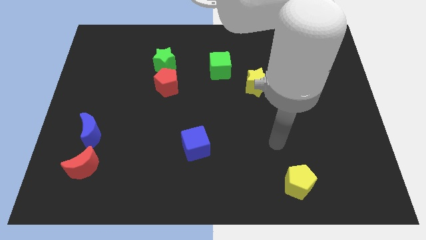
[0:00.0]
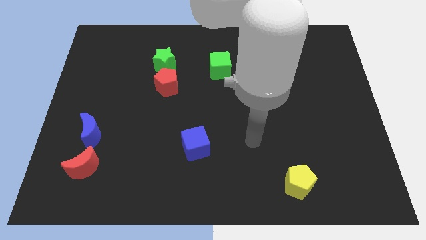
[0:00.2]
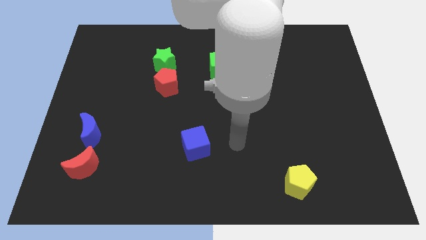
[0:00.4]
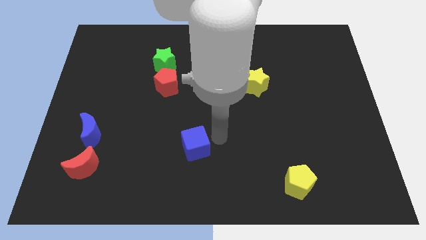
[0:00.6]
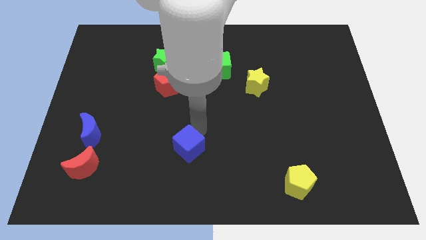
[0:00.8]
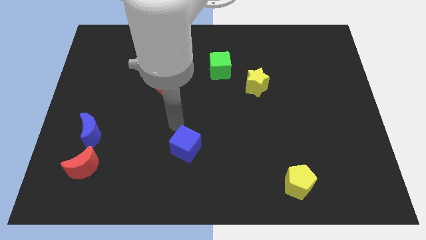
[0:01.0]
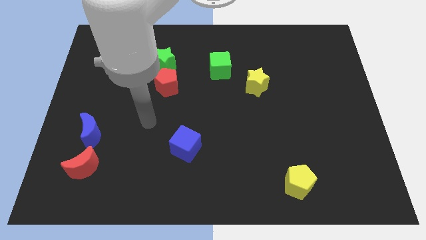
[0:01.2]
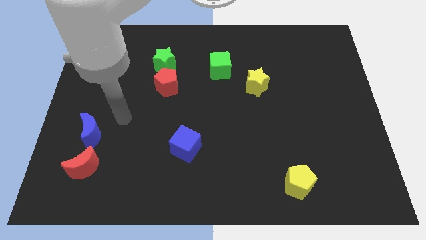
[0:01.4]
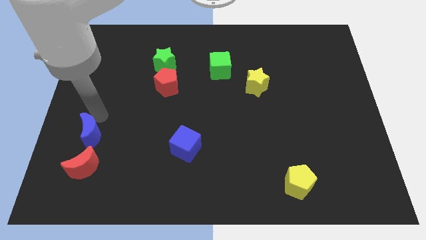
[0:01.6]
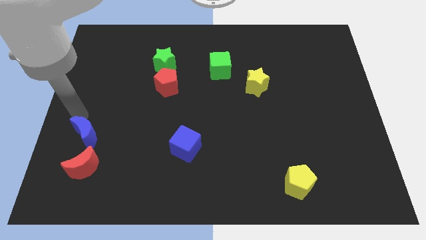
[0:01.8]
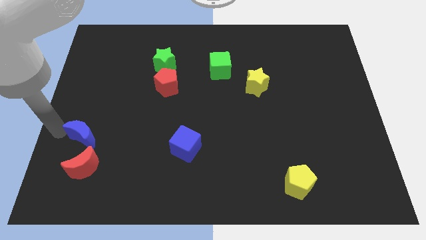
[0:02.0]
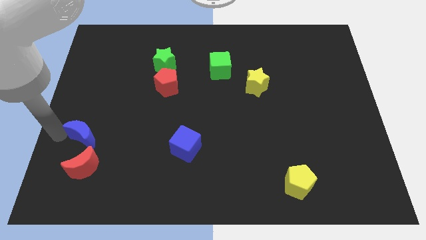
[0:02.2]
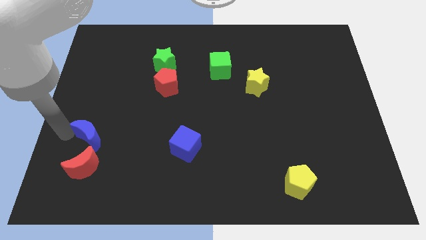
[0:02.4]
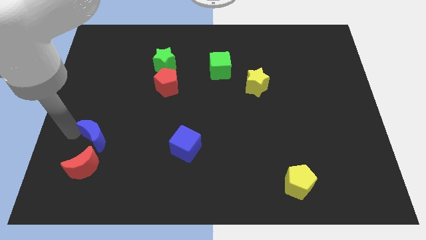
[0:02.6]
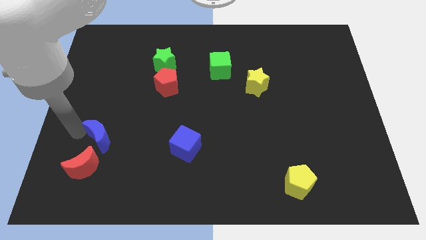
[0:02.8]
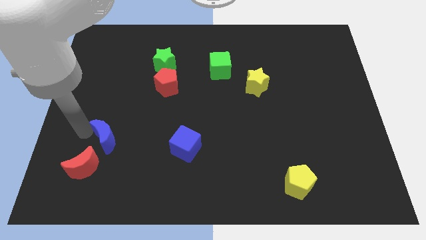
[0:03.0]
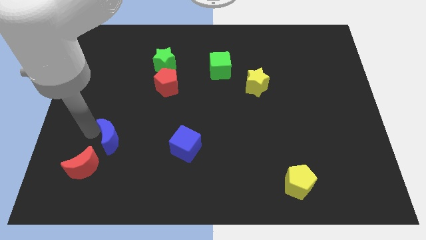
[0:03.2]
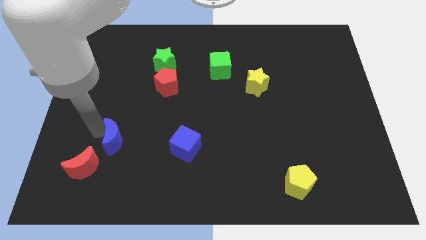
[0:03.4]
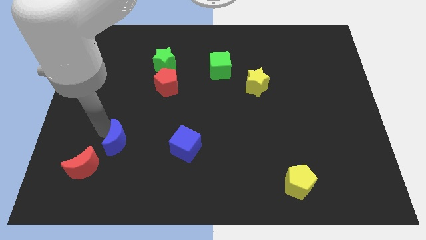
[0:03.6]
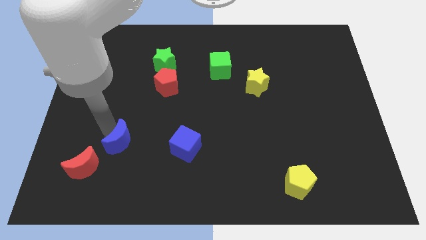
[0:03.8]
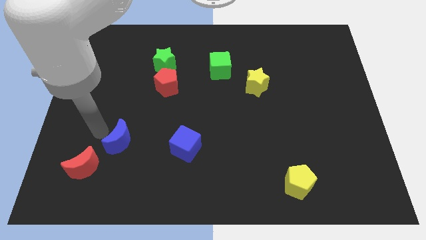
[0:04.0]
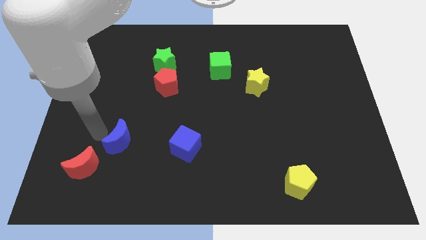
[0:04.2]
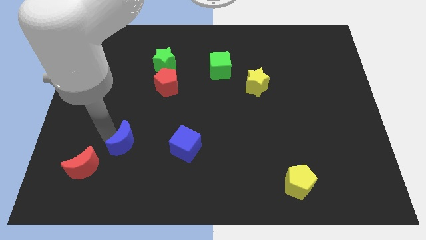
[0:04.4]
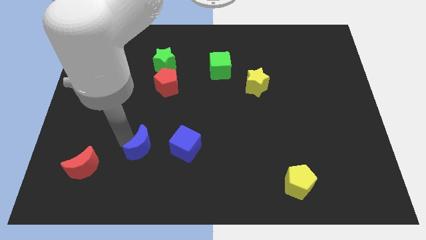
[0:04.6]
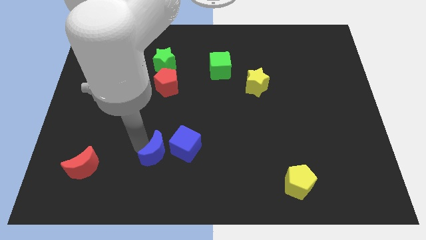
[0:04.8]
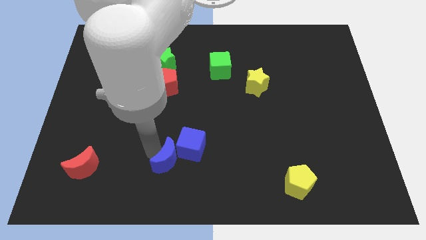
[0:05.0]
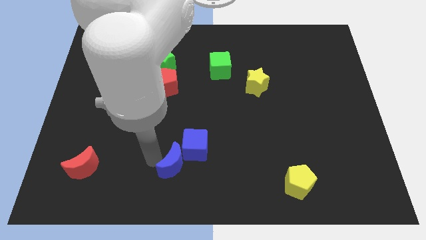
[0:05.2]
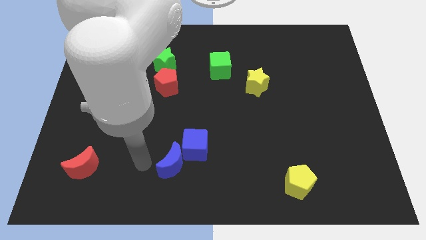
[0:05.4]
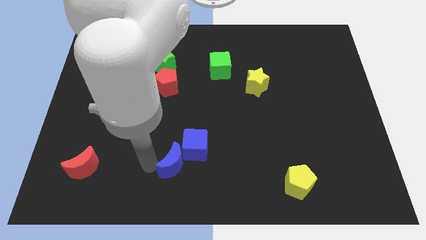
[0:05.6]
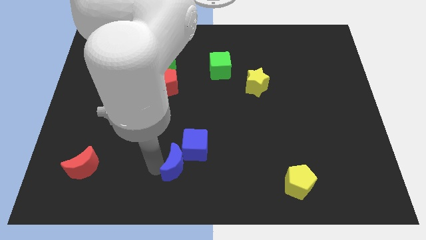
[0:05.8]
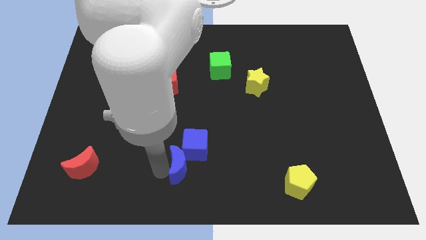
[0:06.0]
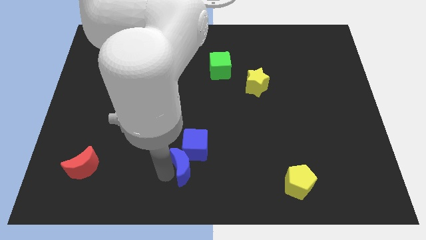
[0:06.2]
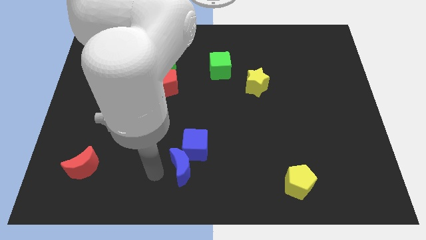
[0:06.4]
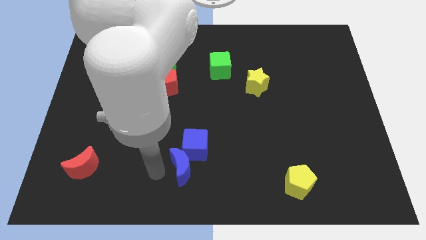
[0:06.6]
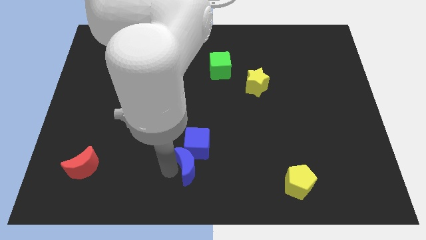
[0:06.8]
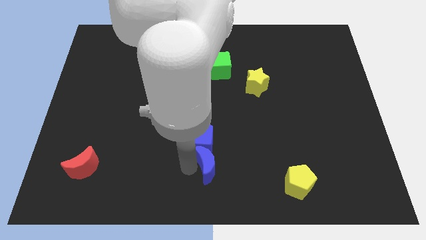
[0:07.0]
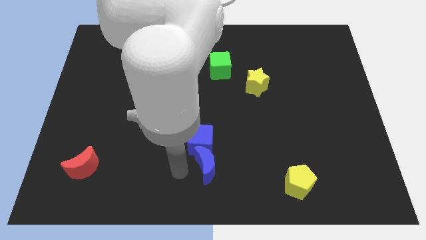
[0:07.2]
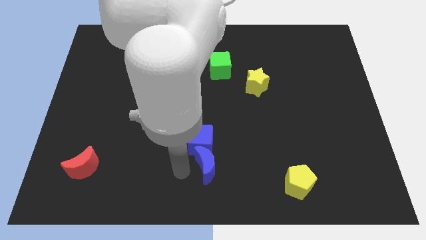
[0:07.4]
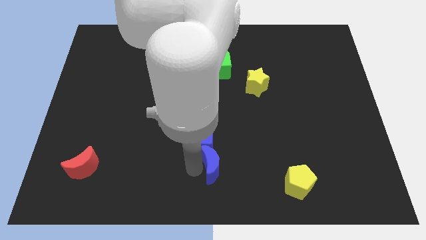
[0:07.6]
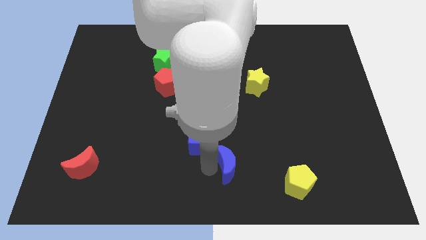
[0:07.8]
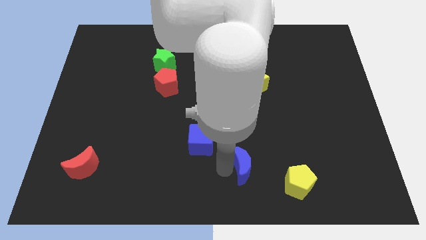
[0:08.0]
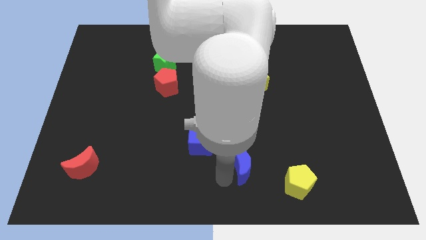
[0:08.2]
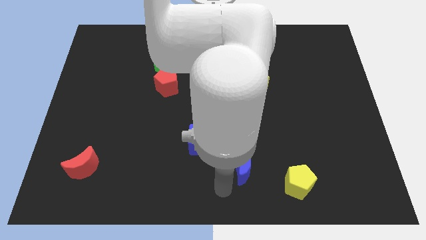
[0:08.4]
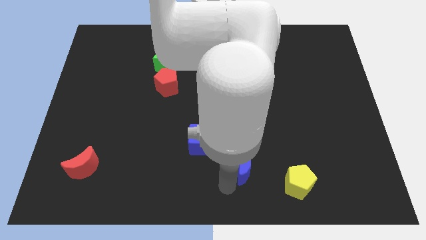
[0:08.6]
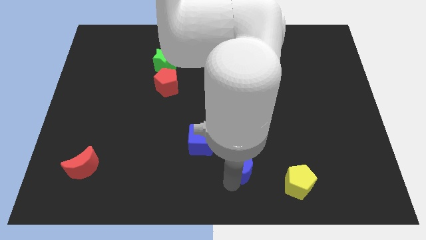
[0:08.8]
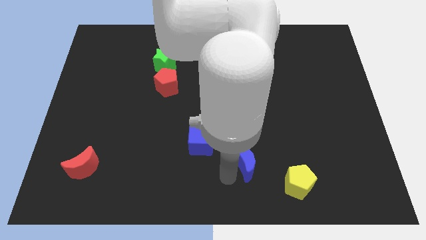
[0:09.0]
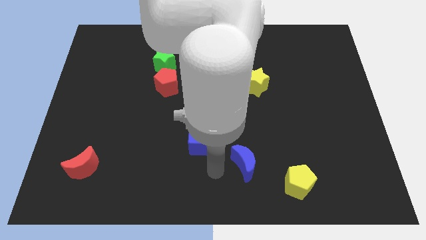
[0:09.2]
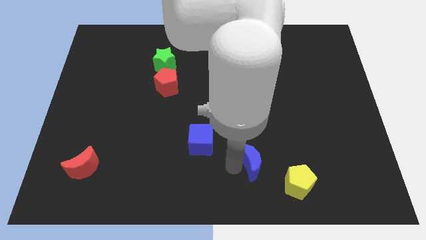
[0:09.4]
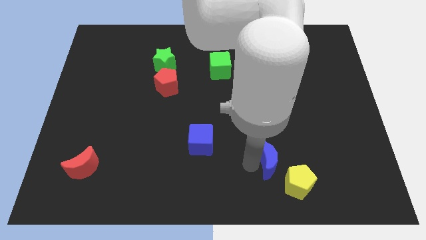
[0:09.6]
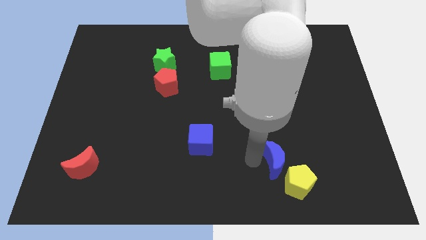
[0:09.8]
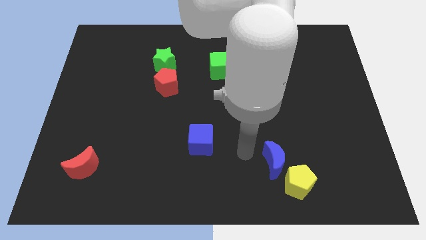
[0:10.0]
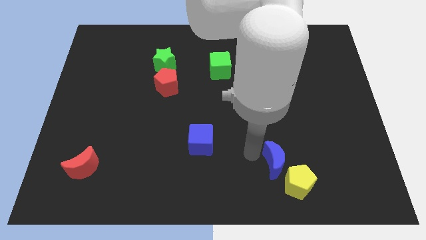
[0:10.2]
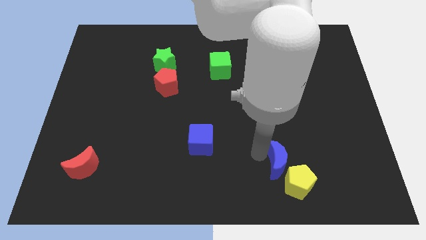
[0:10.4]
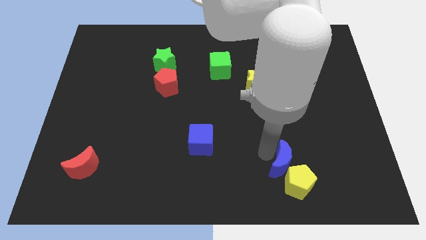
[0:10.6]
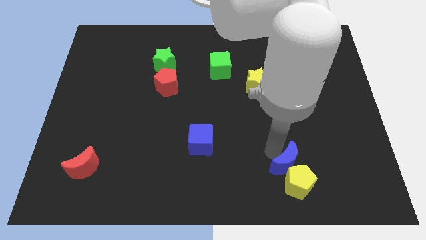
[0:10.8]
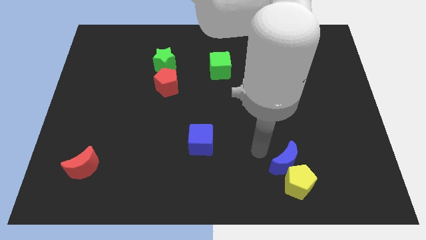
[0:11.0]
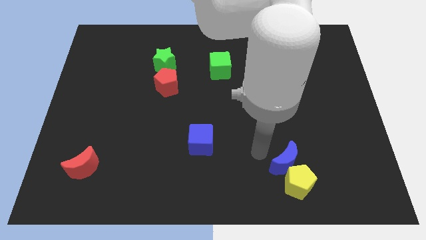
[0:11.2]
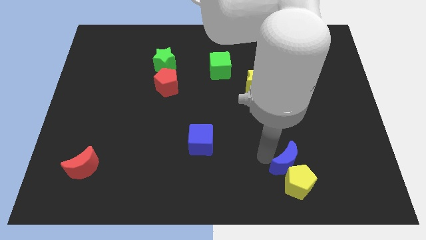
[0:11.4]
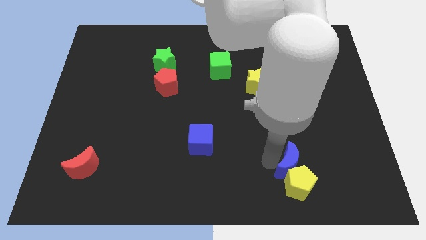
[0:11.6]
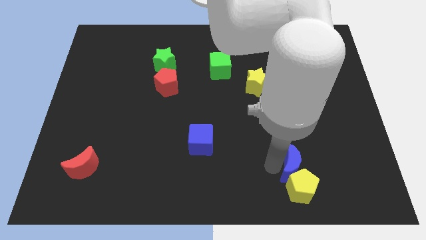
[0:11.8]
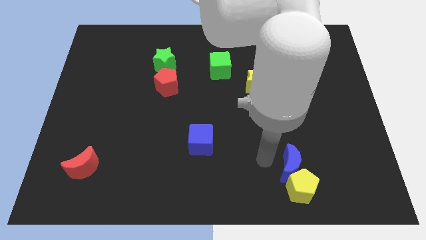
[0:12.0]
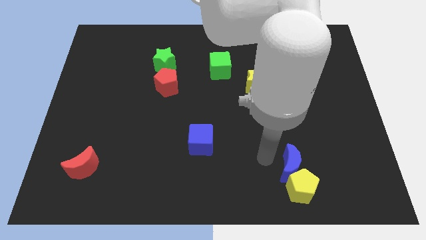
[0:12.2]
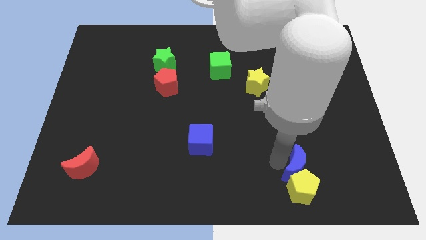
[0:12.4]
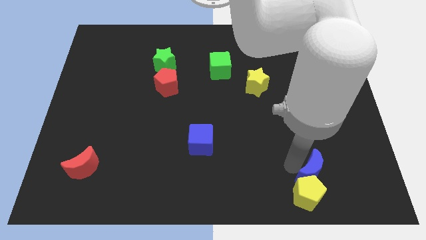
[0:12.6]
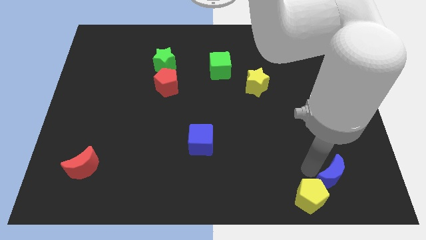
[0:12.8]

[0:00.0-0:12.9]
move the blue moon right of the yellow pentagon

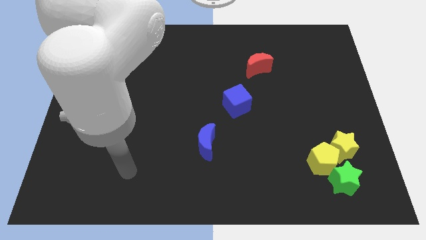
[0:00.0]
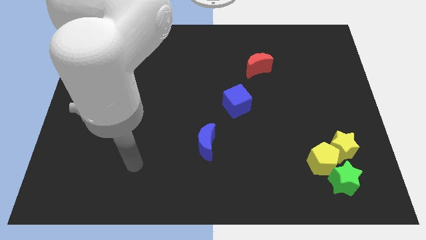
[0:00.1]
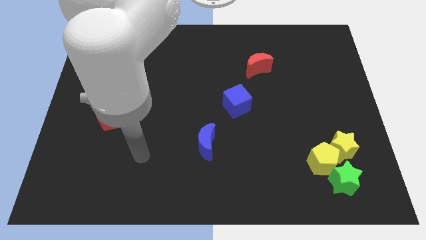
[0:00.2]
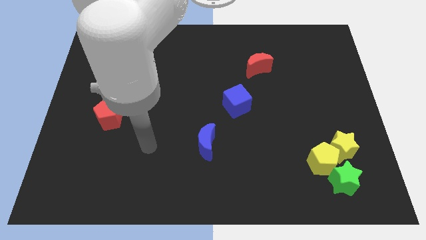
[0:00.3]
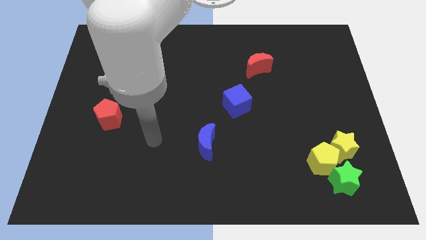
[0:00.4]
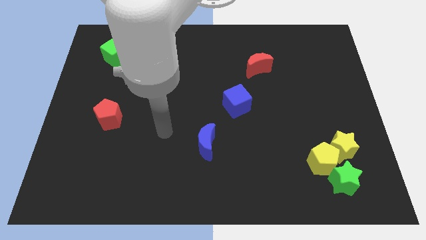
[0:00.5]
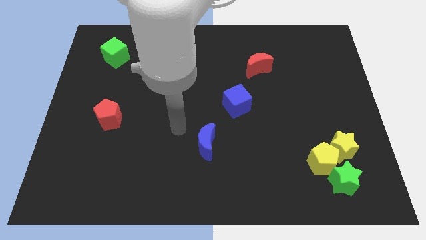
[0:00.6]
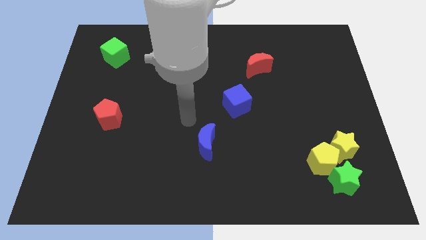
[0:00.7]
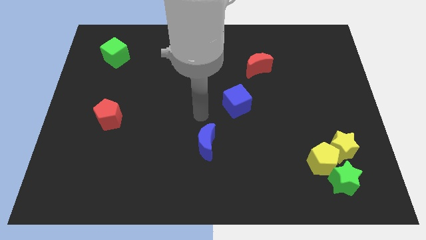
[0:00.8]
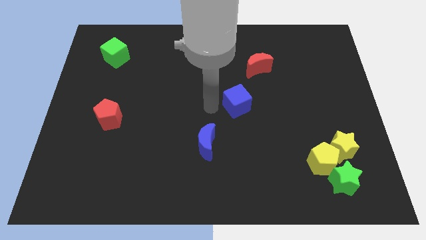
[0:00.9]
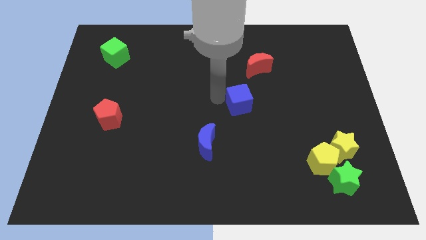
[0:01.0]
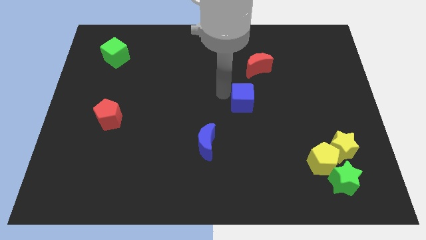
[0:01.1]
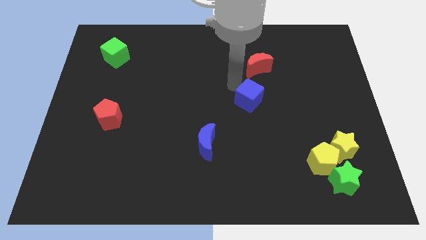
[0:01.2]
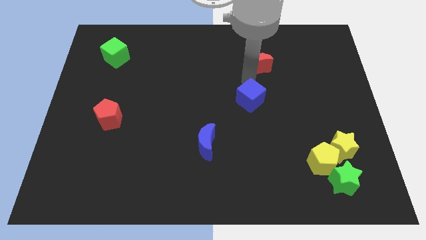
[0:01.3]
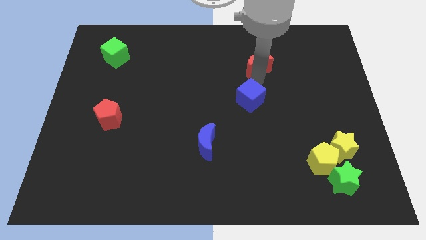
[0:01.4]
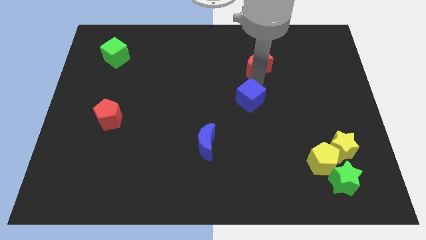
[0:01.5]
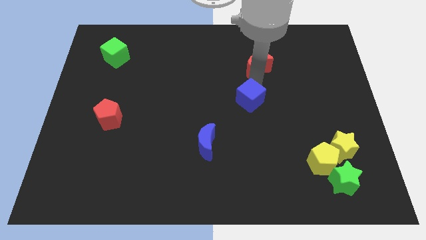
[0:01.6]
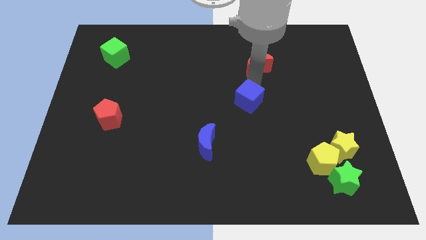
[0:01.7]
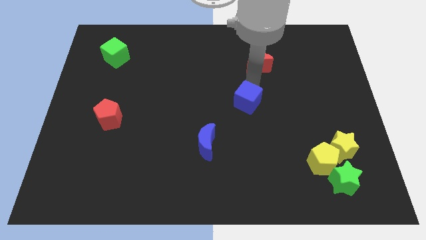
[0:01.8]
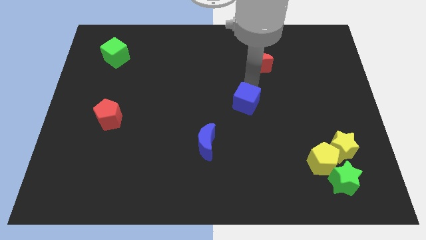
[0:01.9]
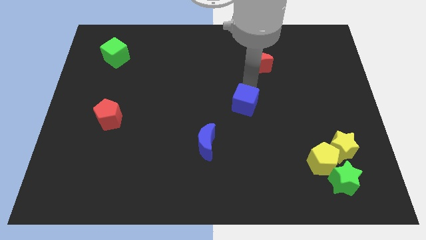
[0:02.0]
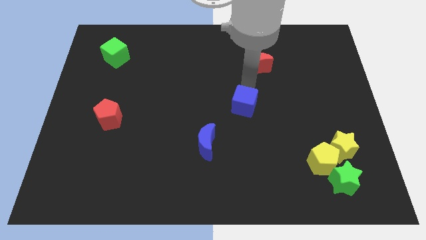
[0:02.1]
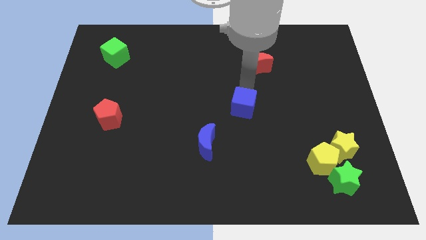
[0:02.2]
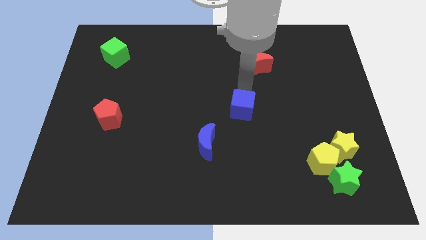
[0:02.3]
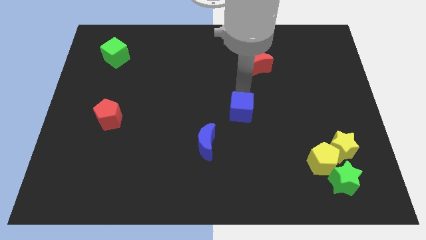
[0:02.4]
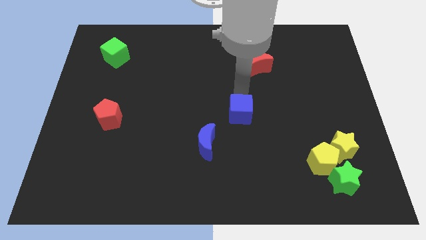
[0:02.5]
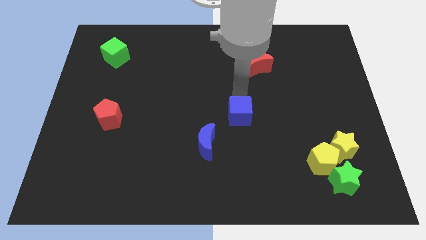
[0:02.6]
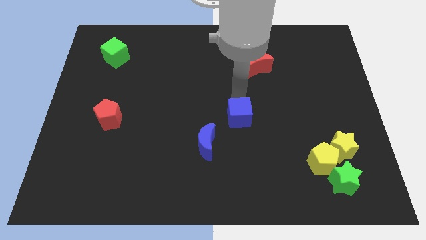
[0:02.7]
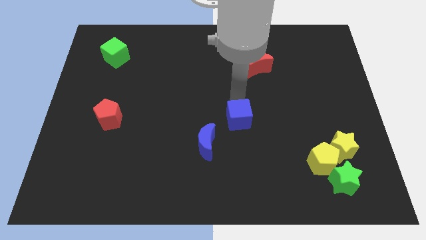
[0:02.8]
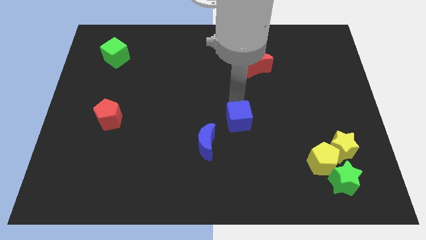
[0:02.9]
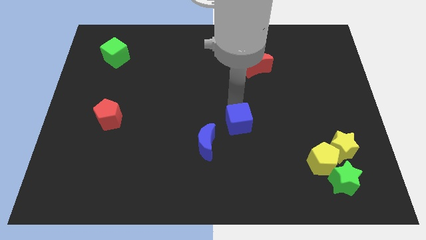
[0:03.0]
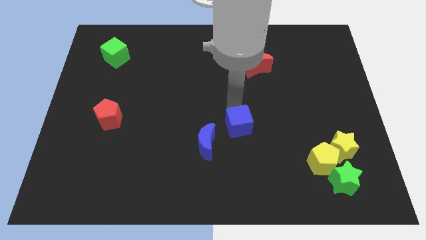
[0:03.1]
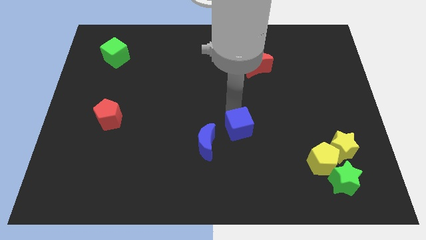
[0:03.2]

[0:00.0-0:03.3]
push the blue cube to the right of the blue moon
